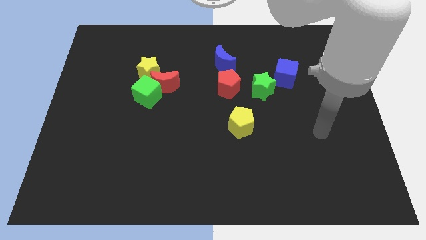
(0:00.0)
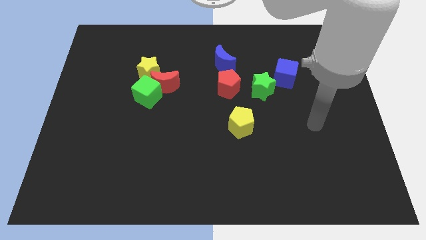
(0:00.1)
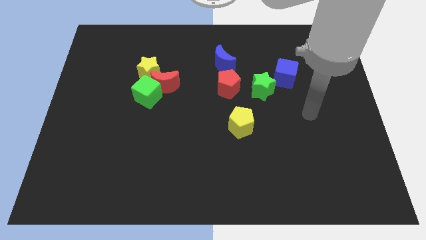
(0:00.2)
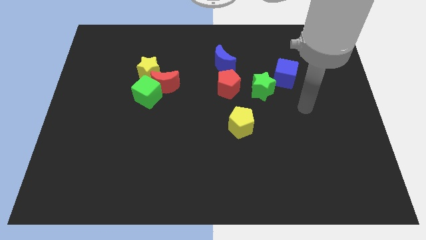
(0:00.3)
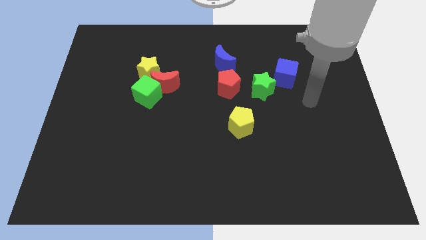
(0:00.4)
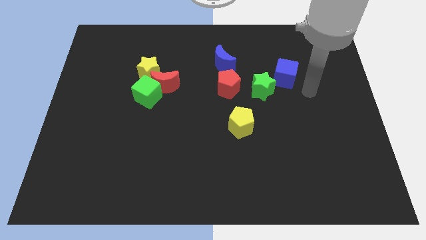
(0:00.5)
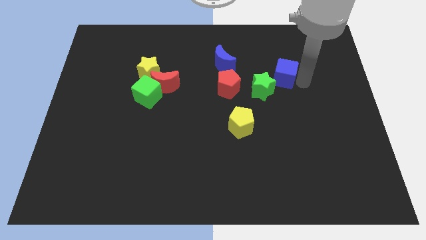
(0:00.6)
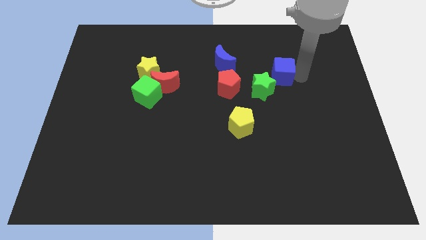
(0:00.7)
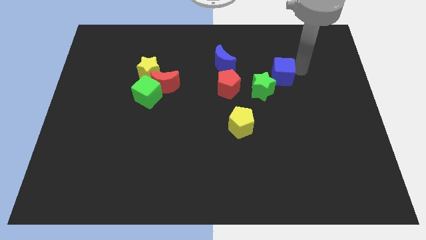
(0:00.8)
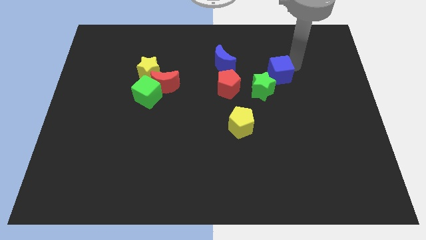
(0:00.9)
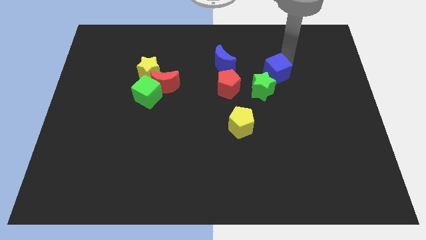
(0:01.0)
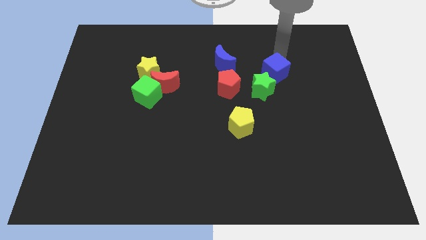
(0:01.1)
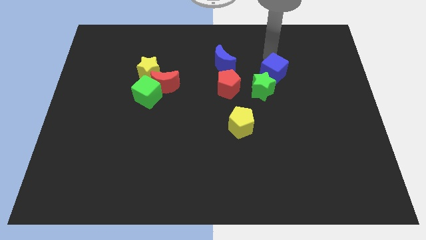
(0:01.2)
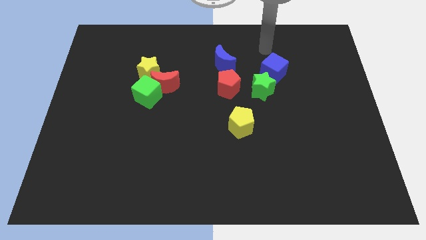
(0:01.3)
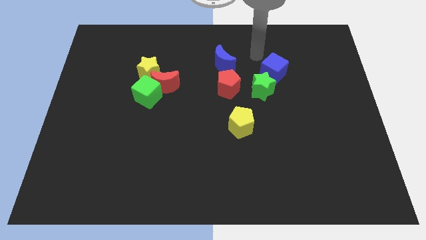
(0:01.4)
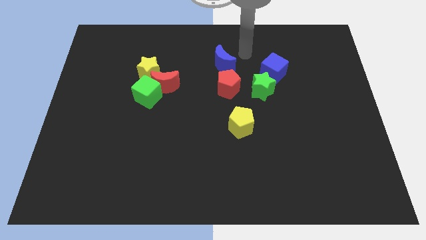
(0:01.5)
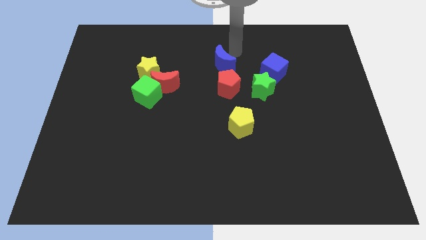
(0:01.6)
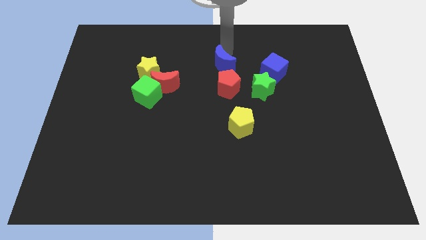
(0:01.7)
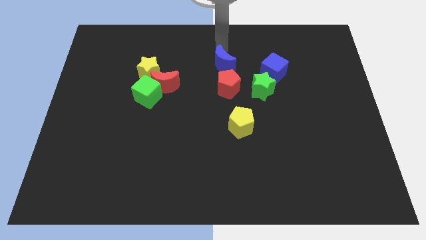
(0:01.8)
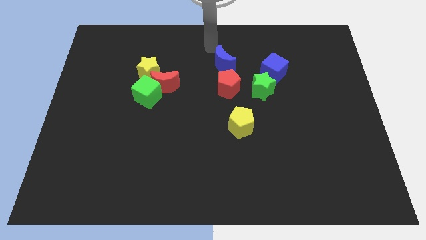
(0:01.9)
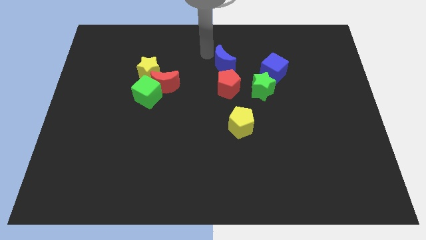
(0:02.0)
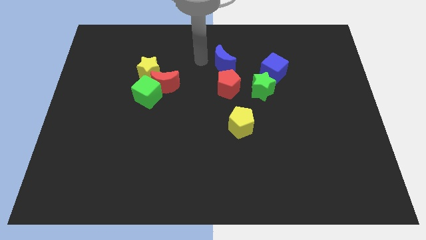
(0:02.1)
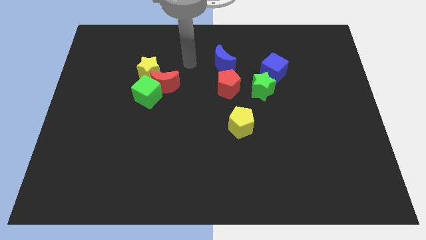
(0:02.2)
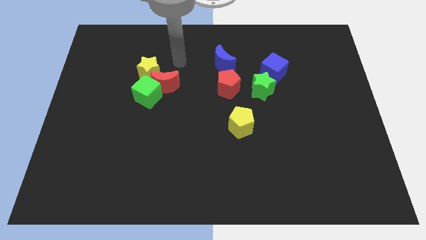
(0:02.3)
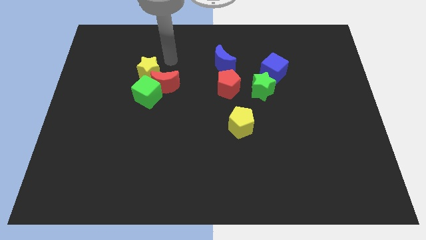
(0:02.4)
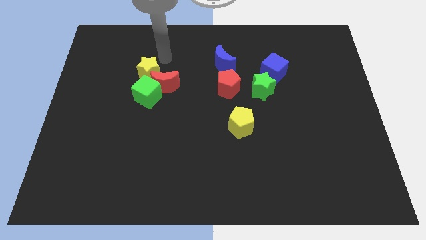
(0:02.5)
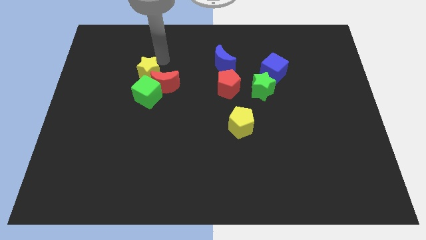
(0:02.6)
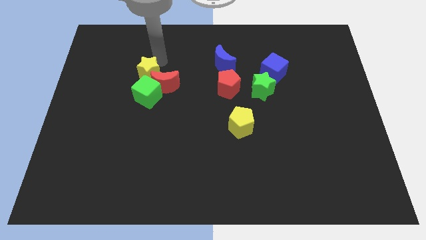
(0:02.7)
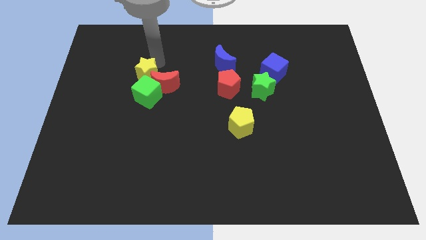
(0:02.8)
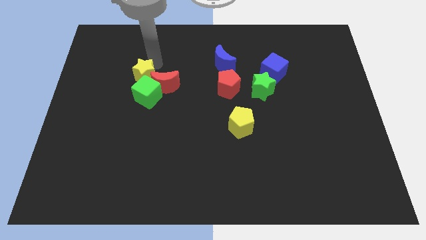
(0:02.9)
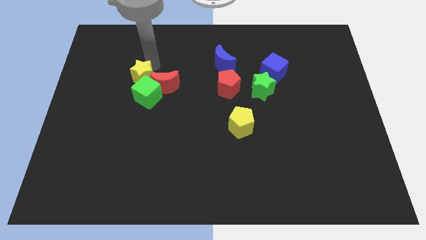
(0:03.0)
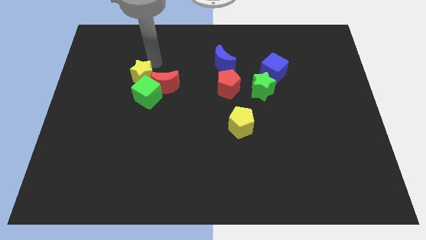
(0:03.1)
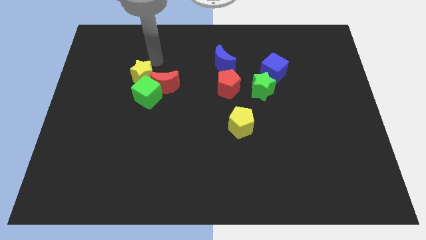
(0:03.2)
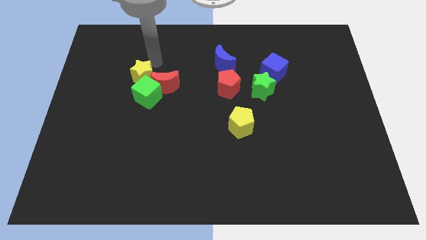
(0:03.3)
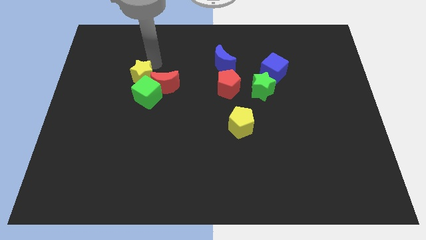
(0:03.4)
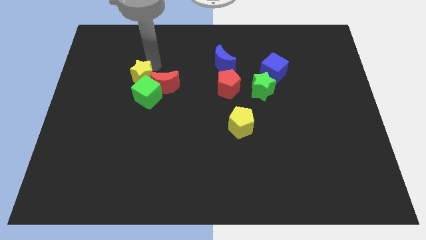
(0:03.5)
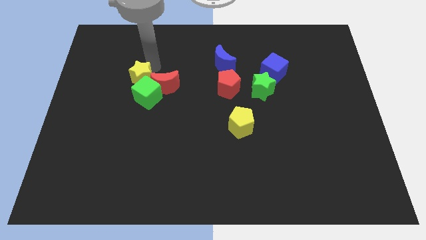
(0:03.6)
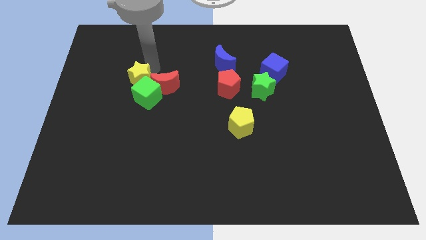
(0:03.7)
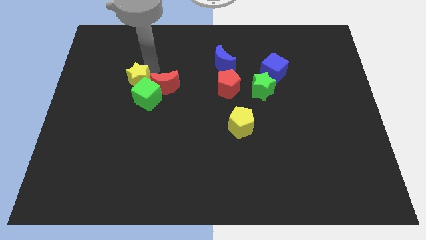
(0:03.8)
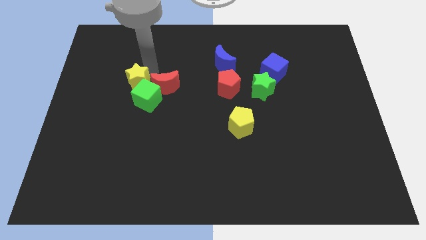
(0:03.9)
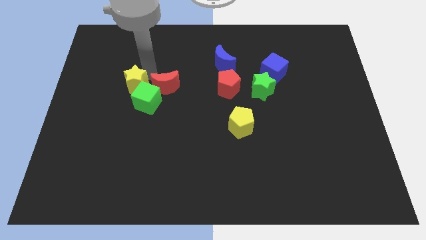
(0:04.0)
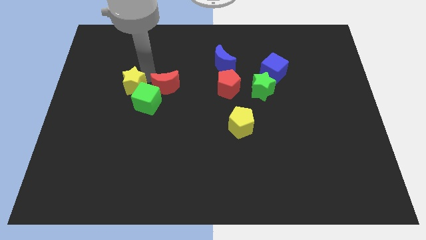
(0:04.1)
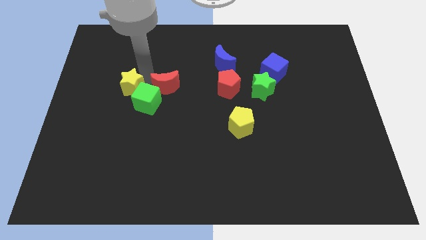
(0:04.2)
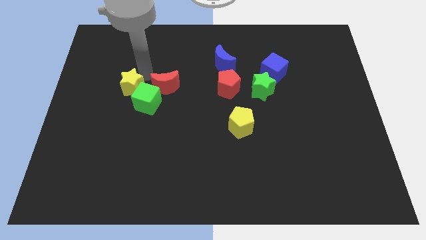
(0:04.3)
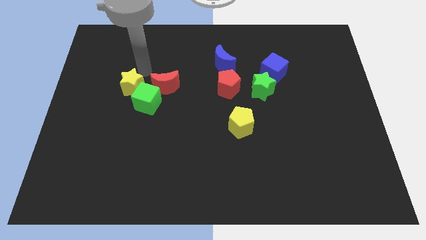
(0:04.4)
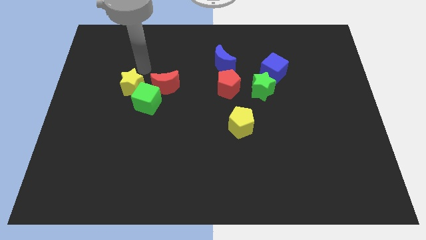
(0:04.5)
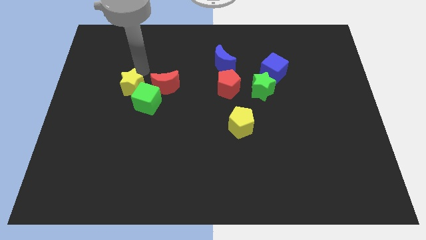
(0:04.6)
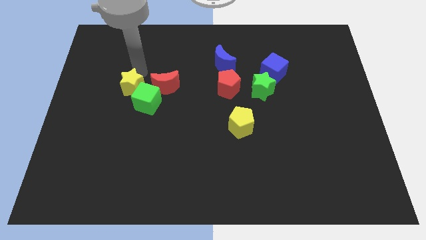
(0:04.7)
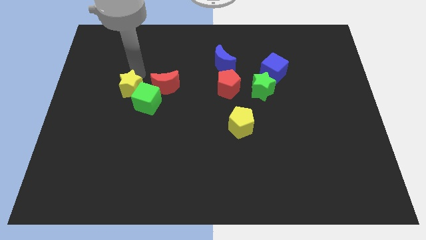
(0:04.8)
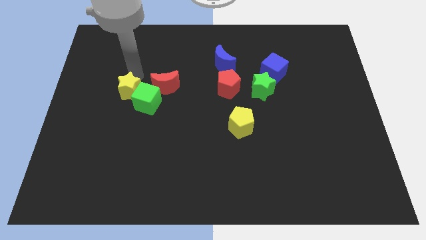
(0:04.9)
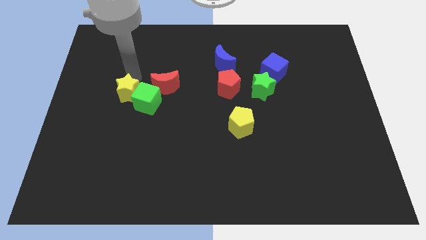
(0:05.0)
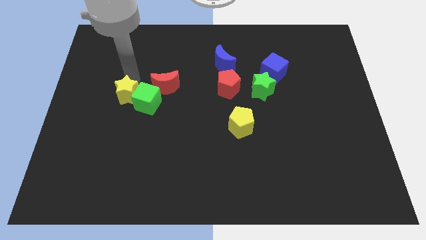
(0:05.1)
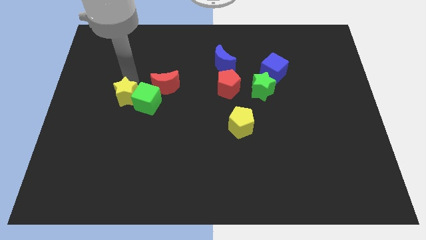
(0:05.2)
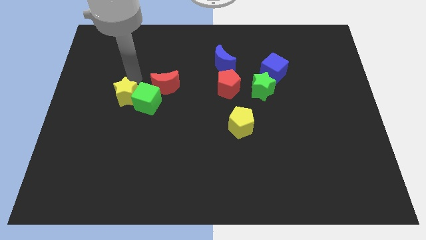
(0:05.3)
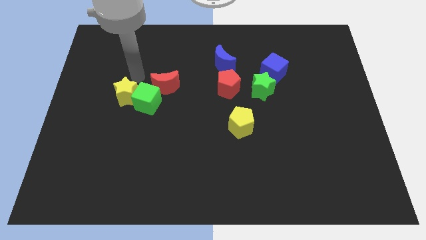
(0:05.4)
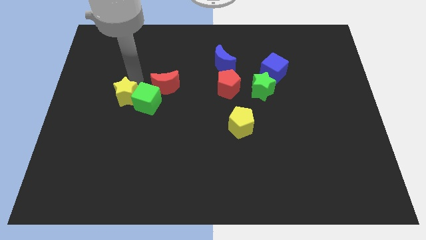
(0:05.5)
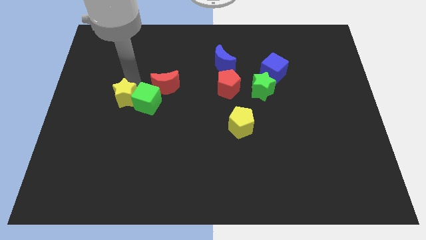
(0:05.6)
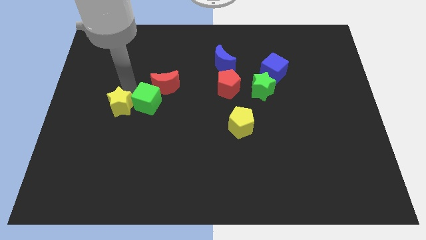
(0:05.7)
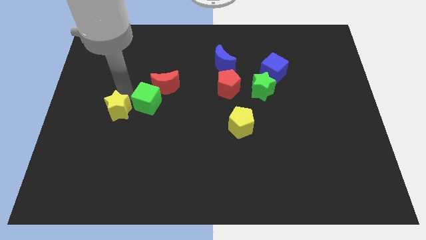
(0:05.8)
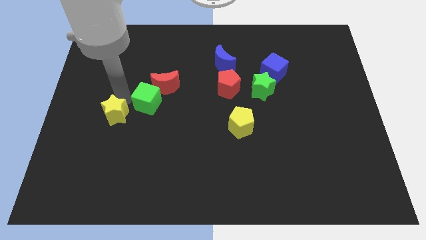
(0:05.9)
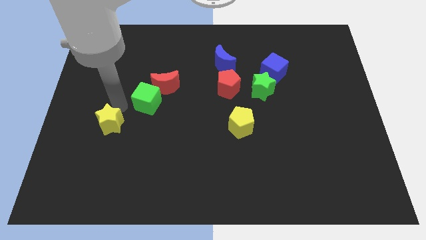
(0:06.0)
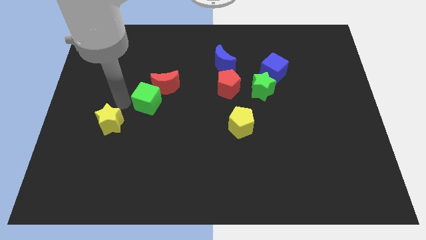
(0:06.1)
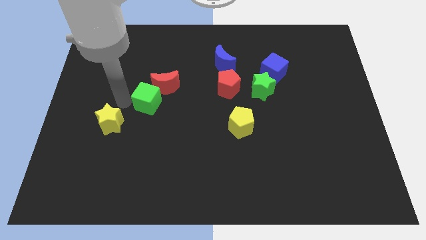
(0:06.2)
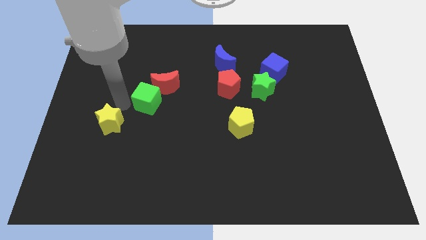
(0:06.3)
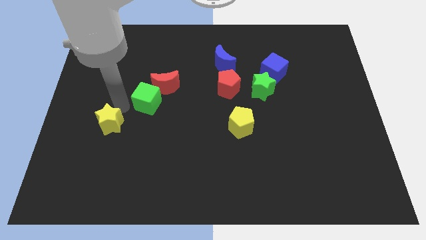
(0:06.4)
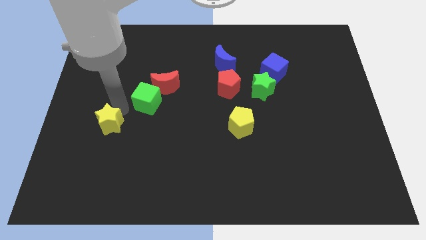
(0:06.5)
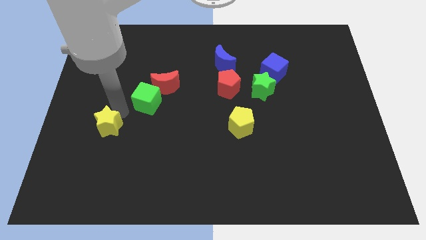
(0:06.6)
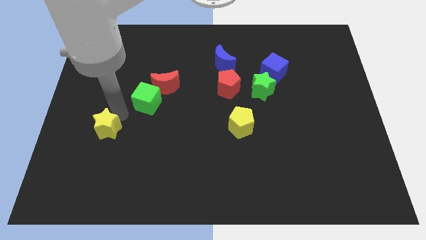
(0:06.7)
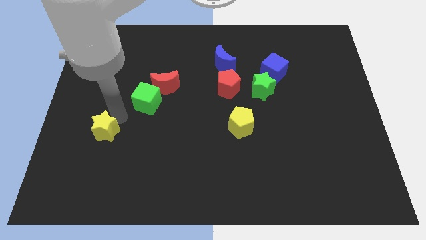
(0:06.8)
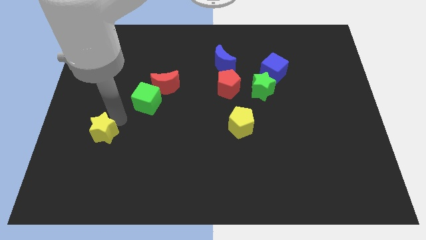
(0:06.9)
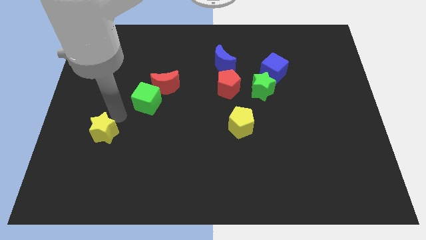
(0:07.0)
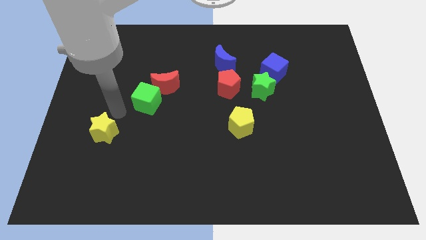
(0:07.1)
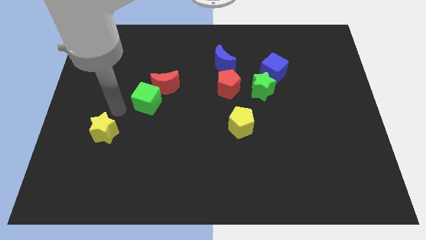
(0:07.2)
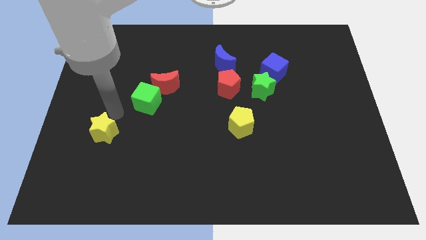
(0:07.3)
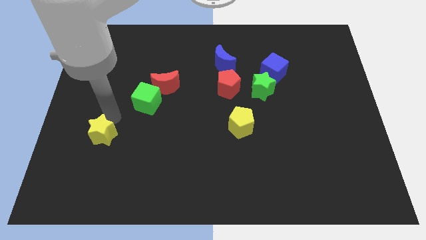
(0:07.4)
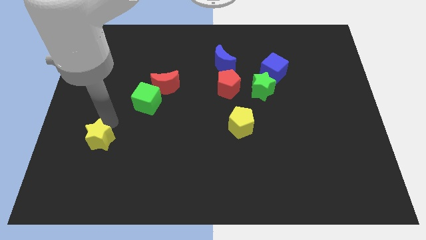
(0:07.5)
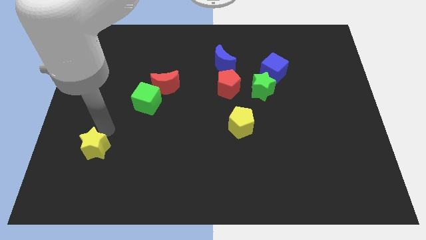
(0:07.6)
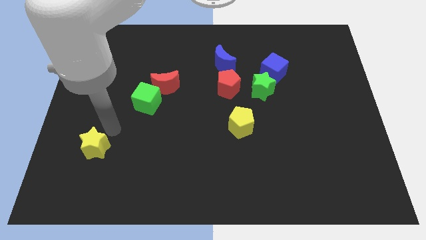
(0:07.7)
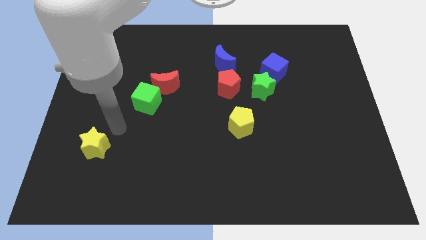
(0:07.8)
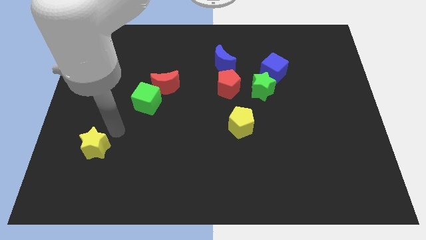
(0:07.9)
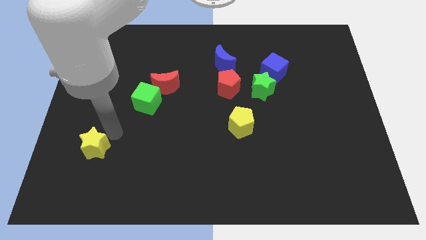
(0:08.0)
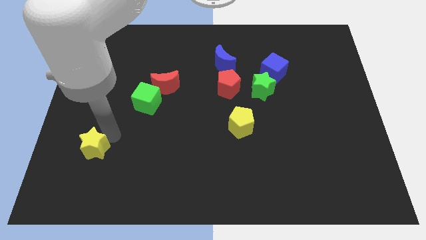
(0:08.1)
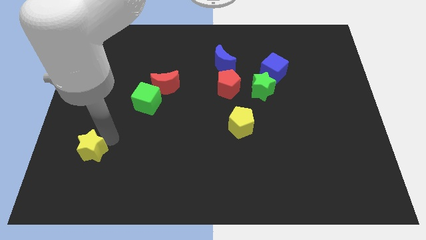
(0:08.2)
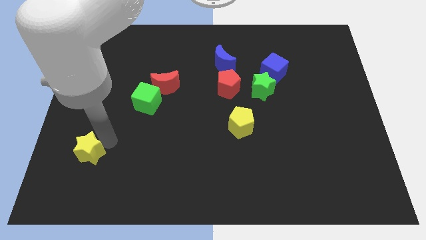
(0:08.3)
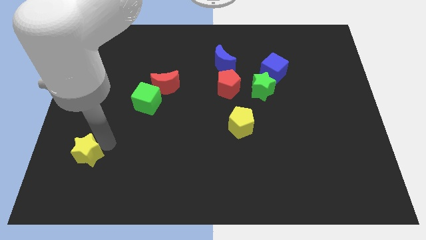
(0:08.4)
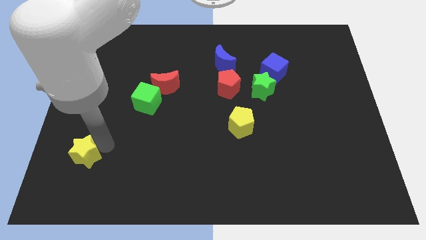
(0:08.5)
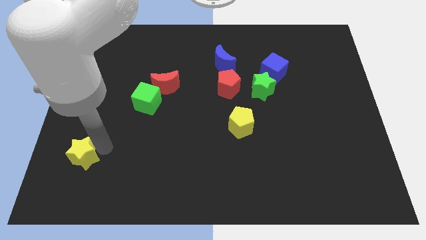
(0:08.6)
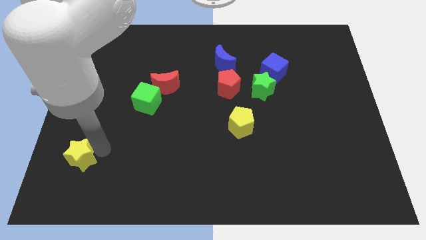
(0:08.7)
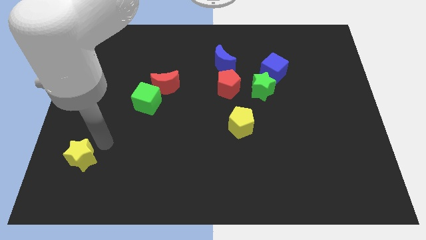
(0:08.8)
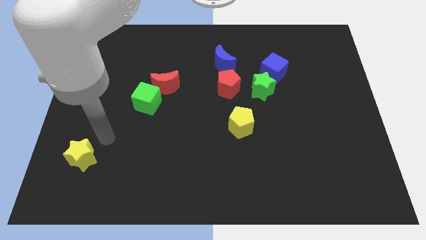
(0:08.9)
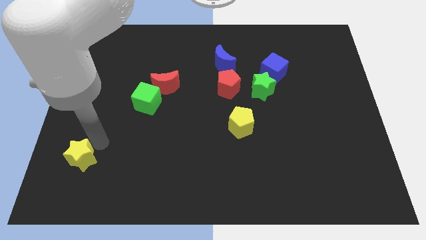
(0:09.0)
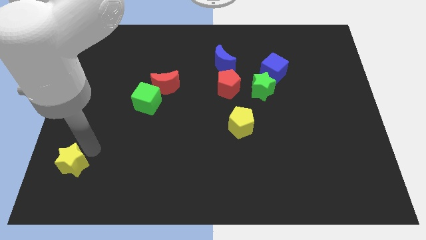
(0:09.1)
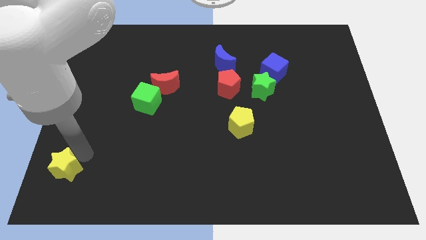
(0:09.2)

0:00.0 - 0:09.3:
push the yellow star to the bottom left
